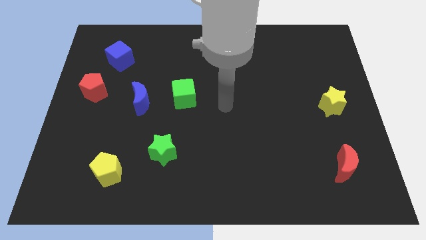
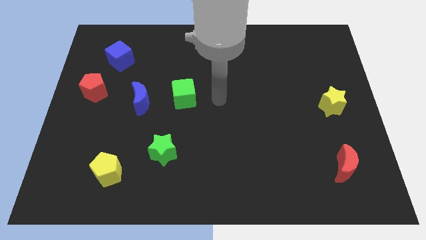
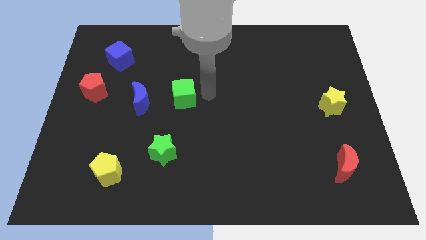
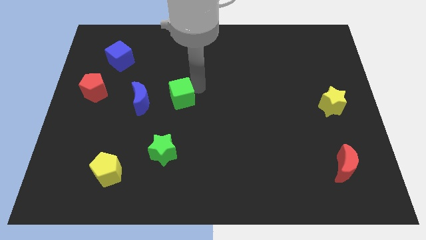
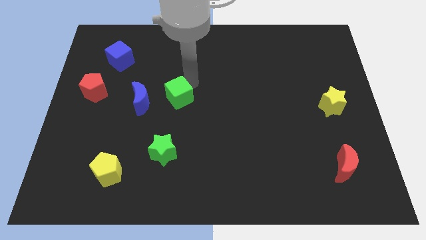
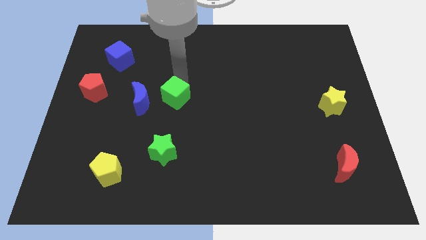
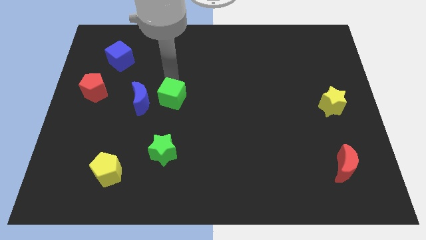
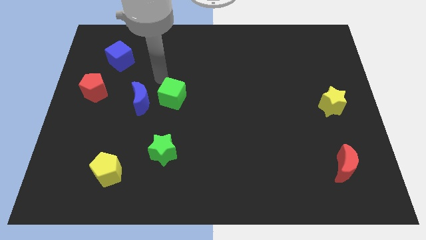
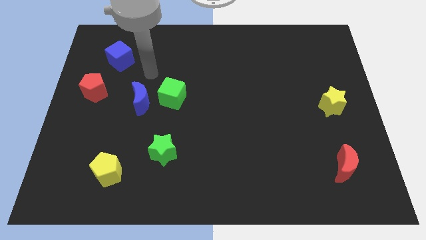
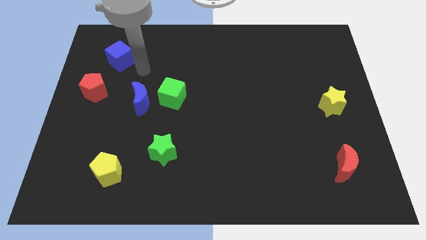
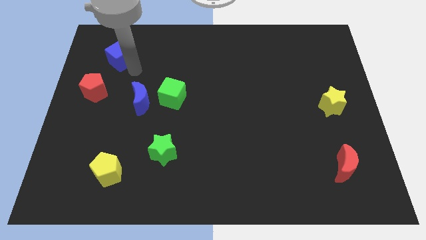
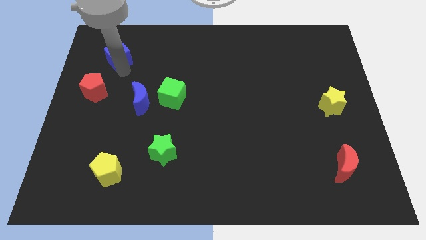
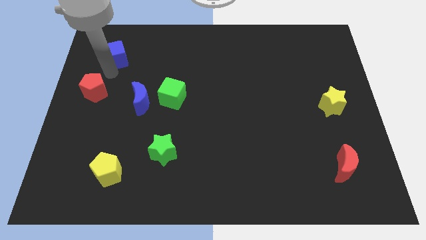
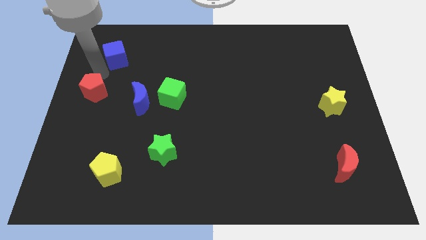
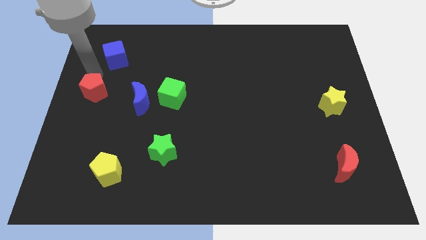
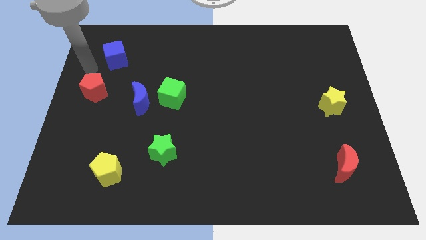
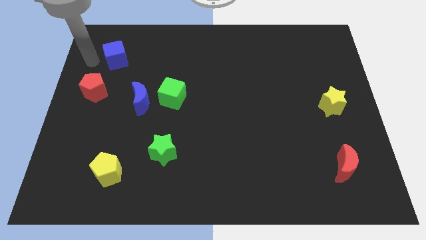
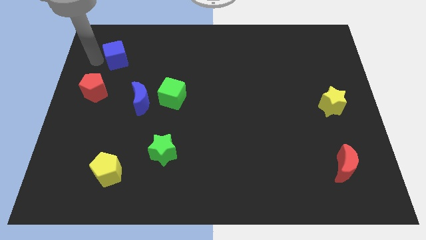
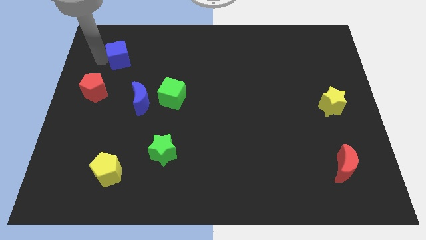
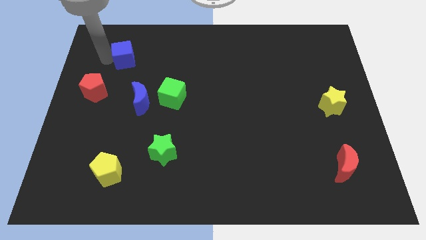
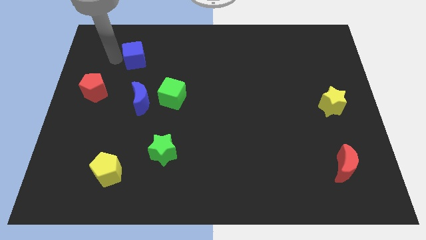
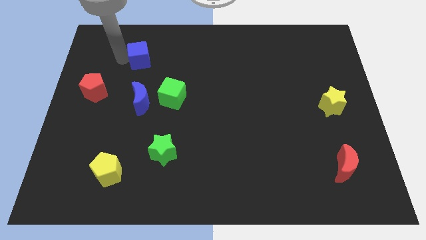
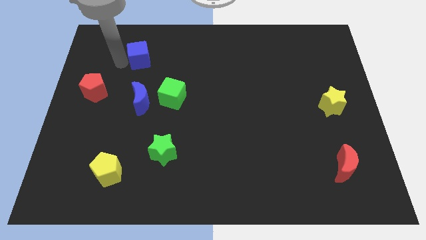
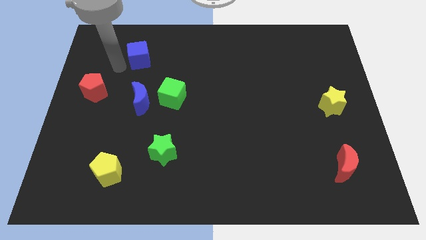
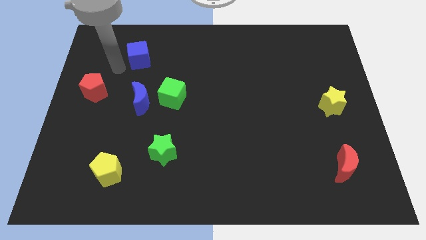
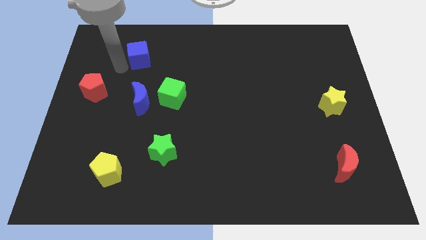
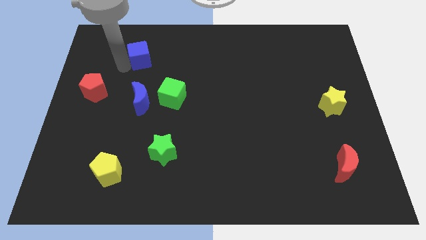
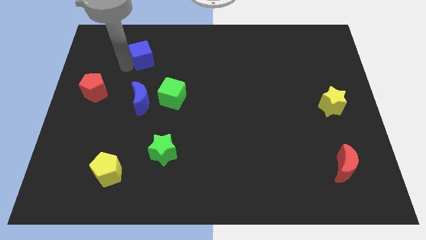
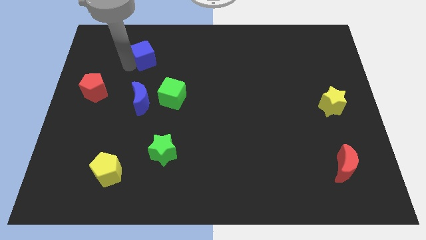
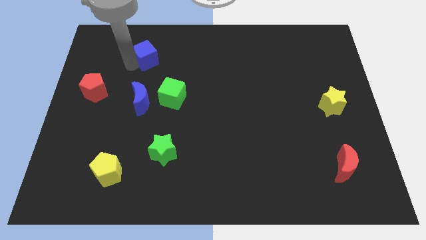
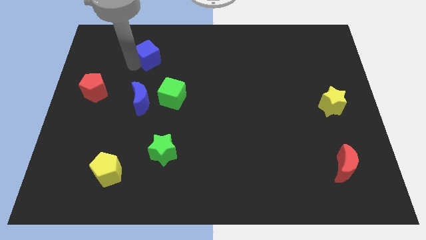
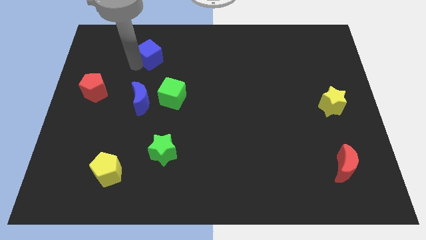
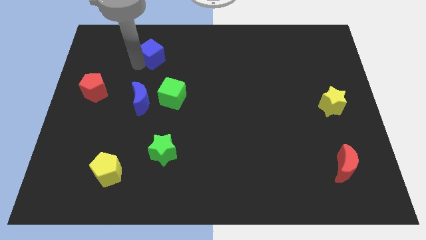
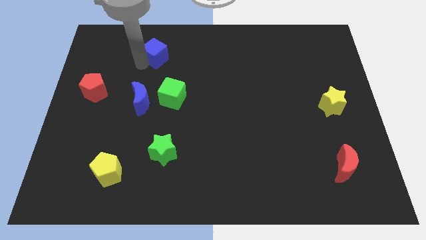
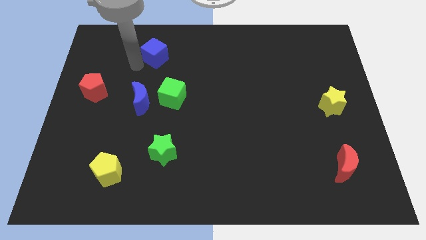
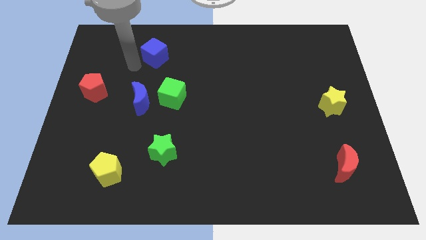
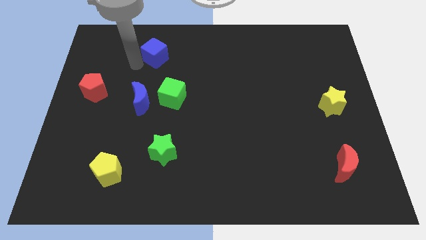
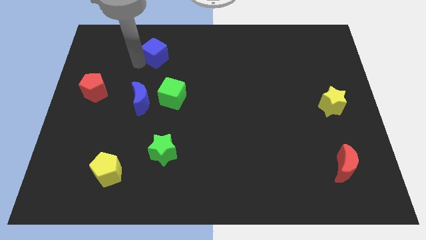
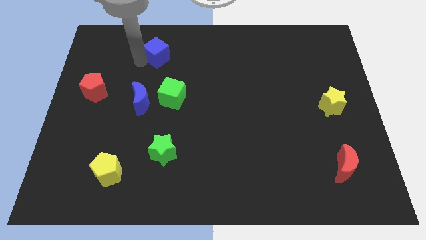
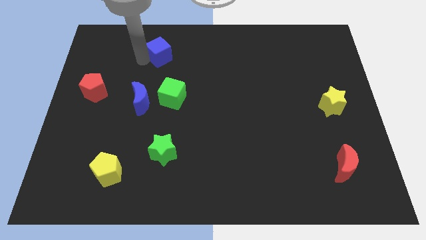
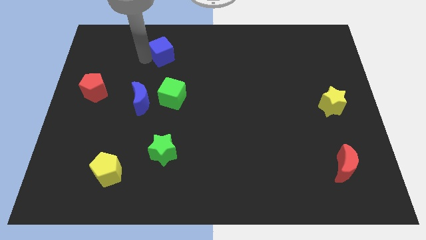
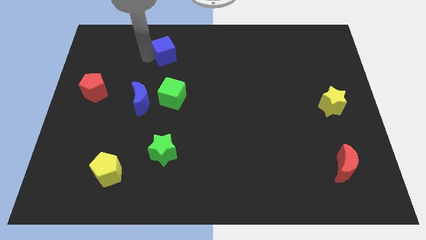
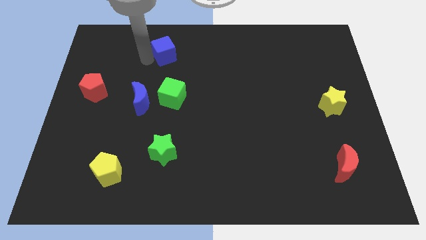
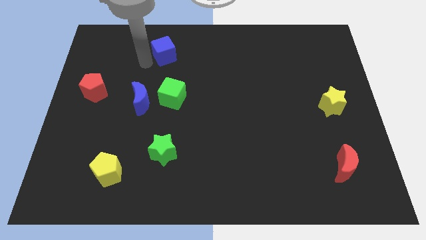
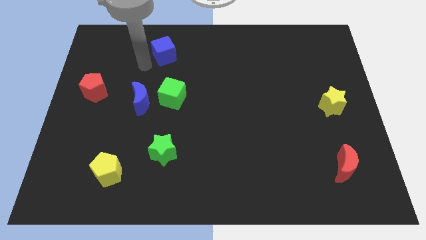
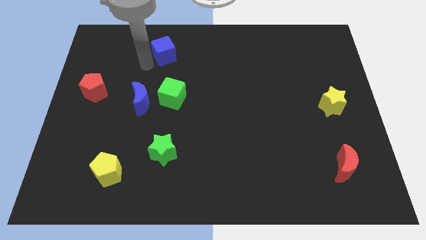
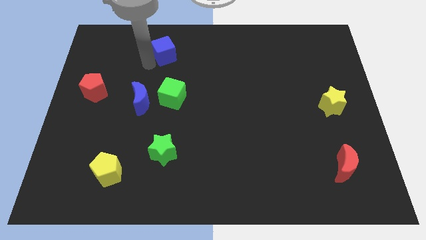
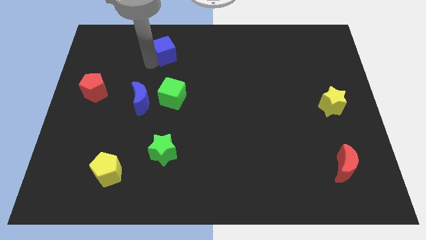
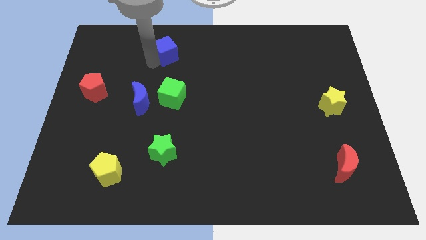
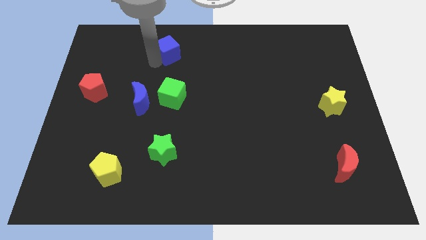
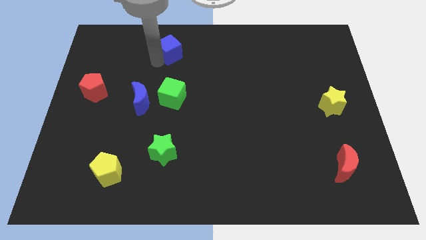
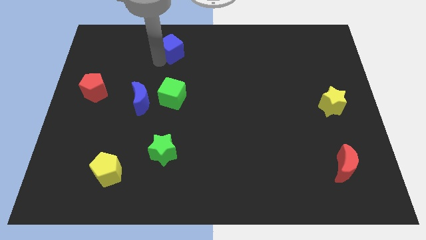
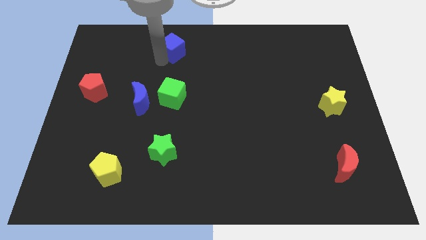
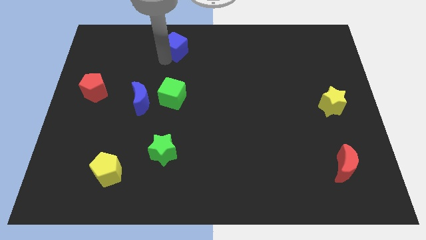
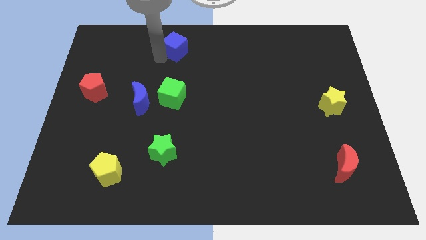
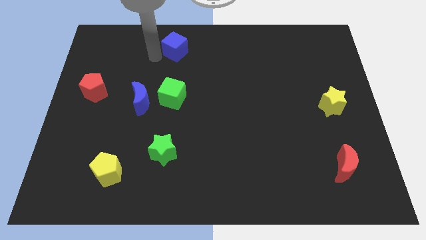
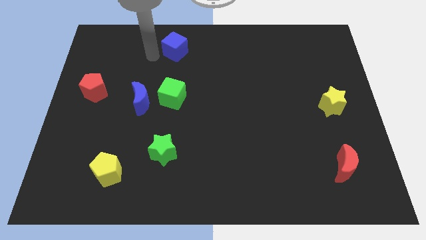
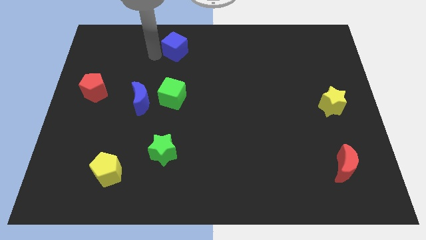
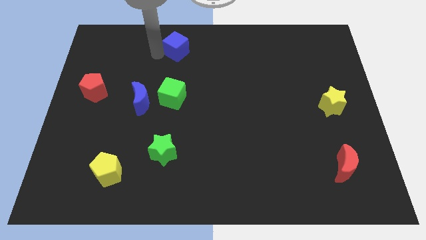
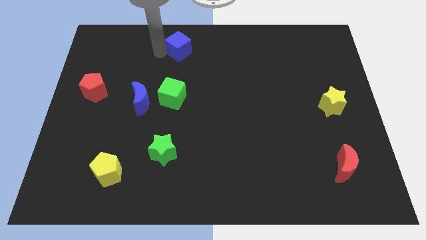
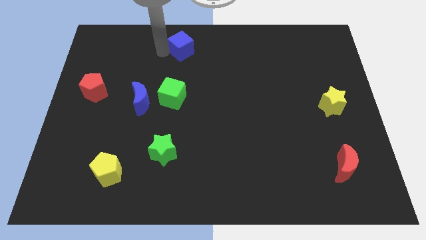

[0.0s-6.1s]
move the blue cube to the top
